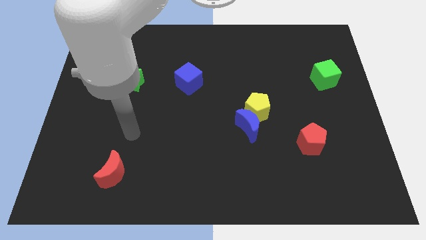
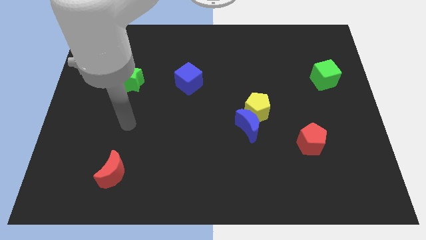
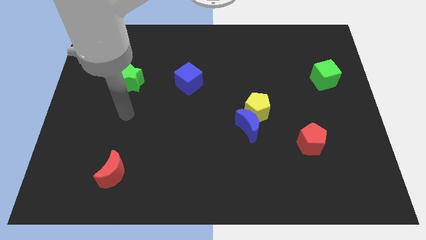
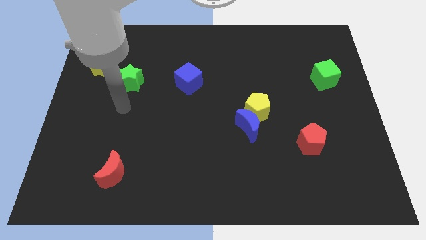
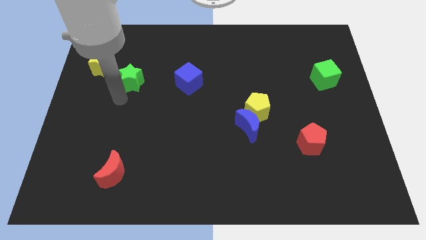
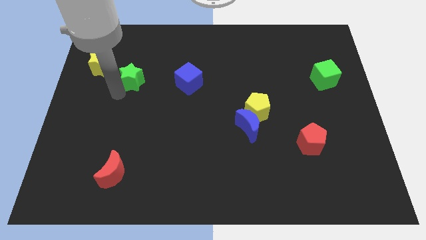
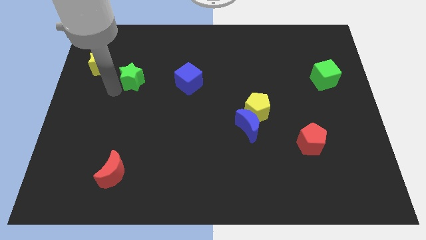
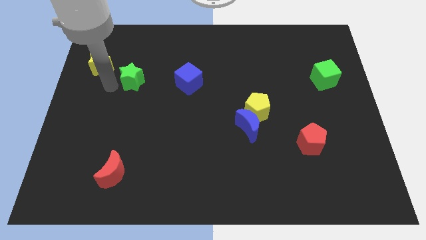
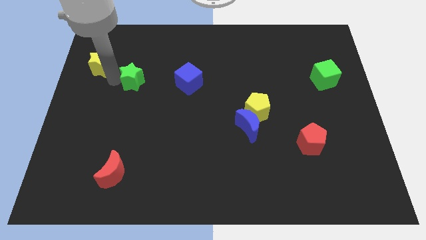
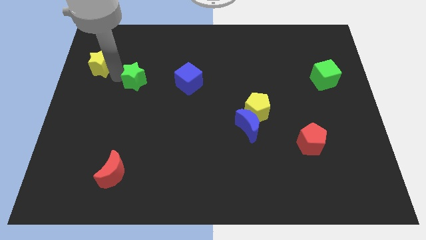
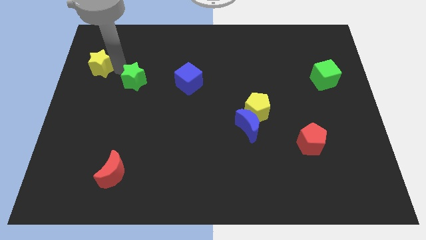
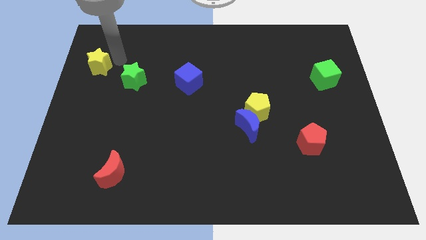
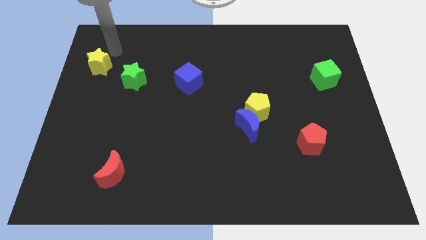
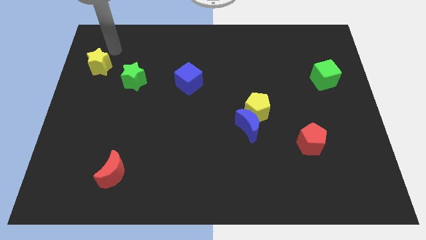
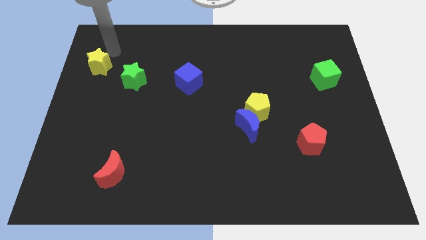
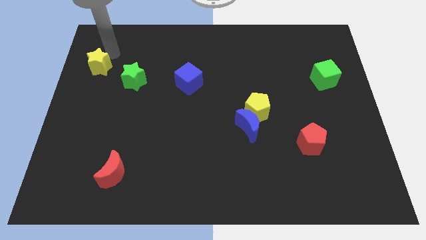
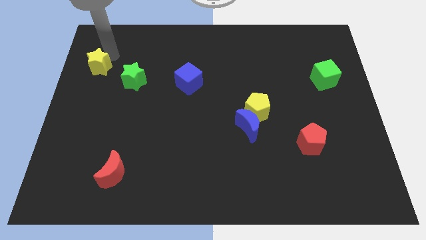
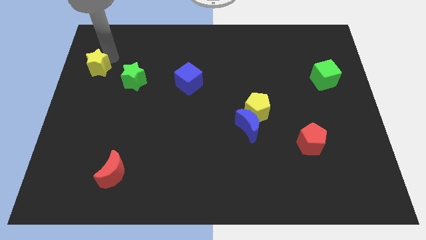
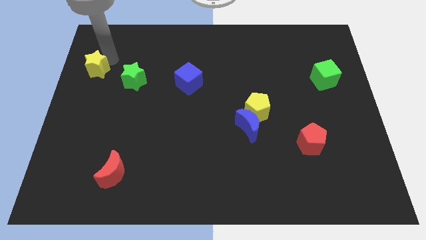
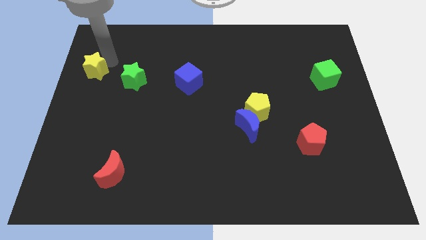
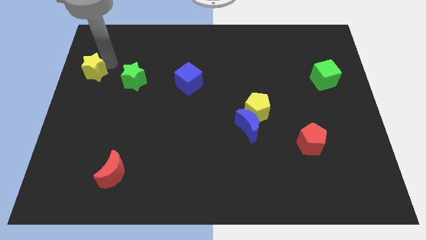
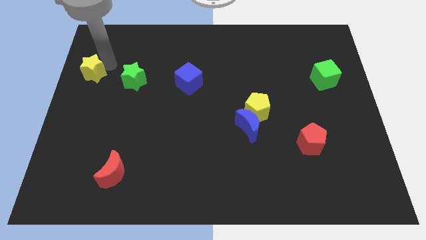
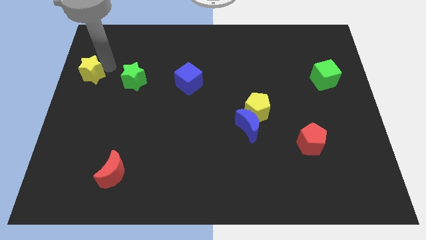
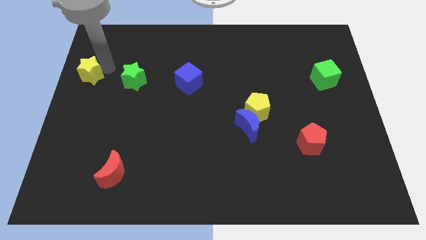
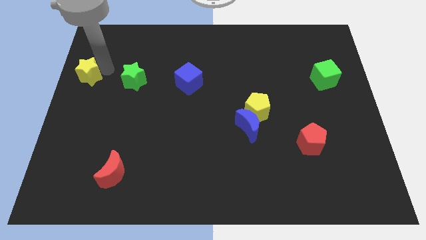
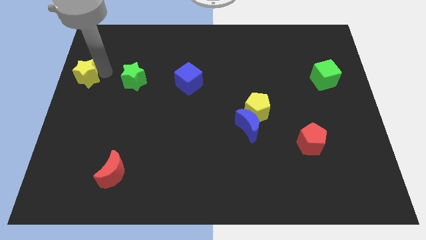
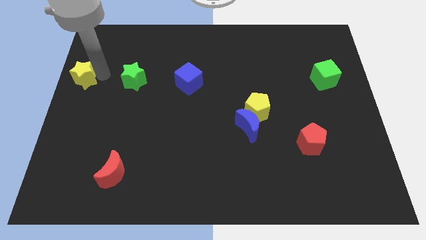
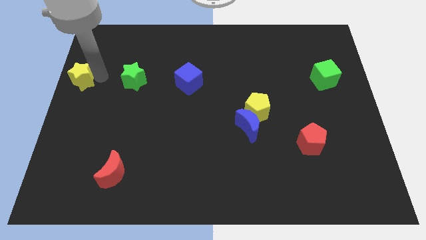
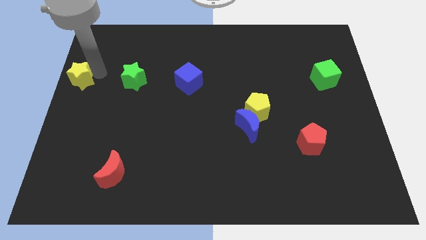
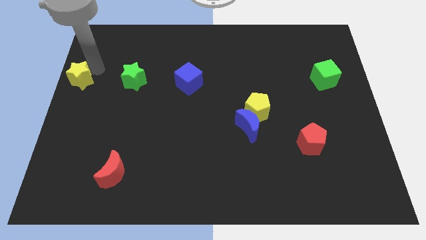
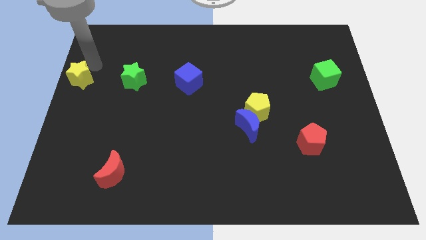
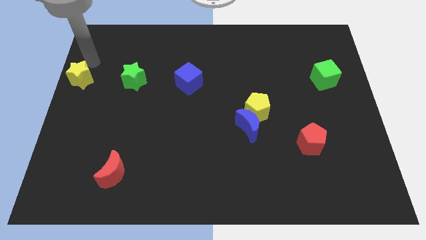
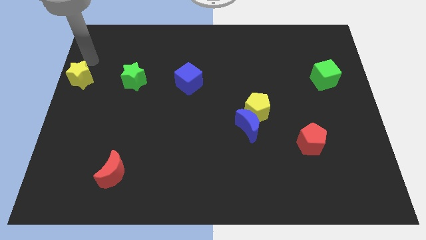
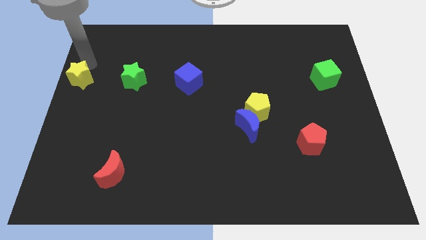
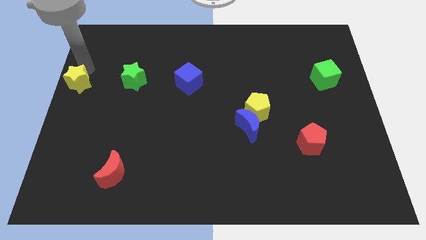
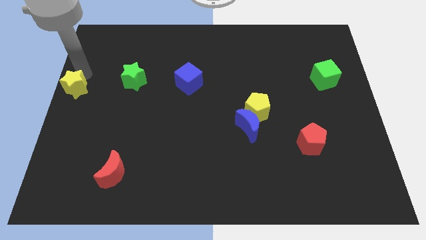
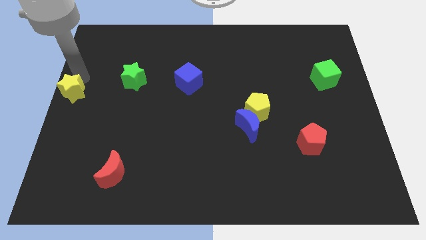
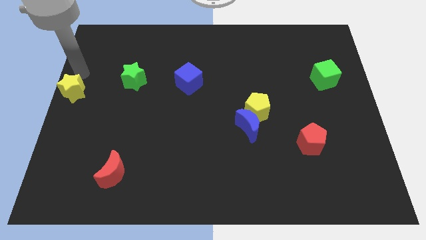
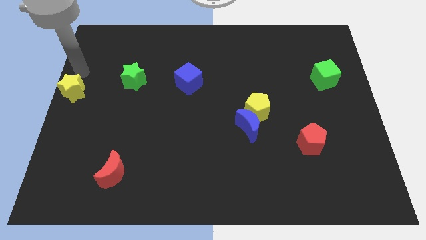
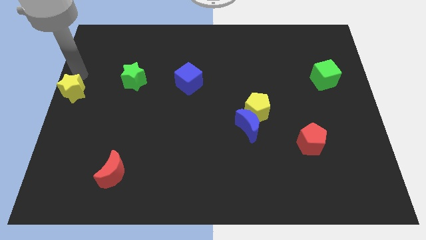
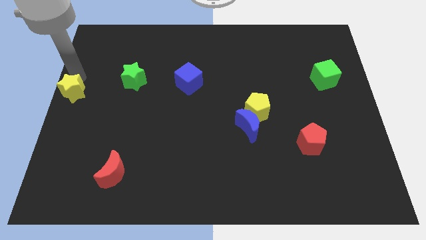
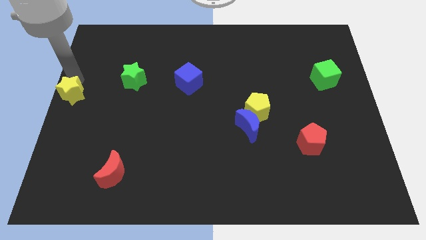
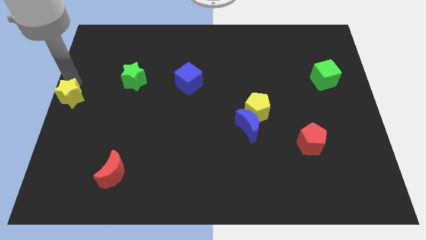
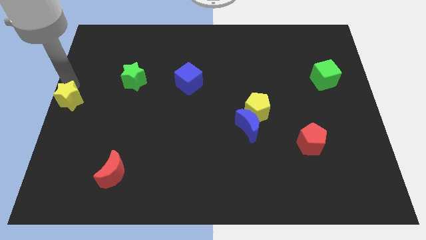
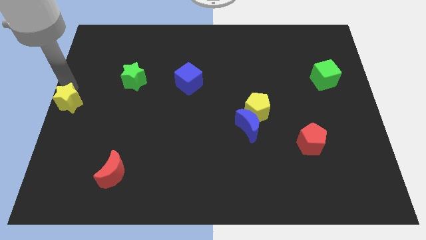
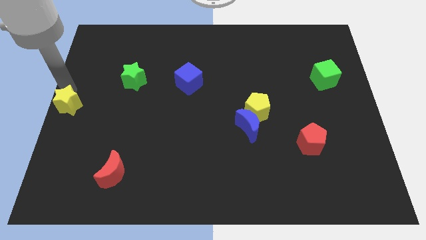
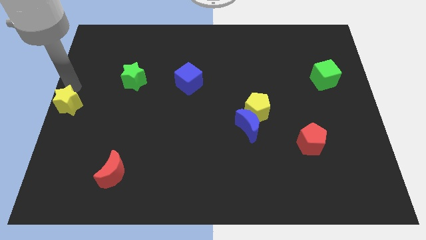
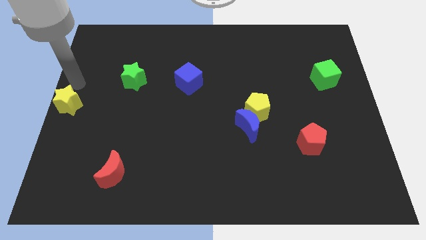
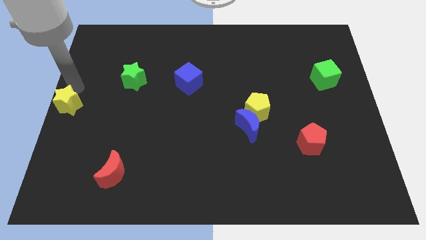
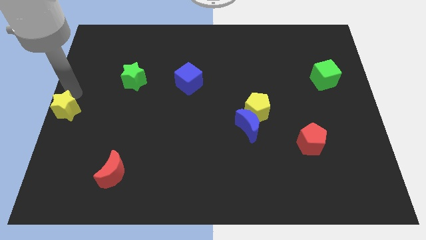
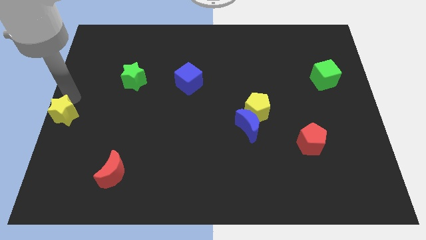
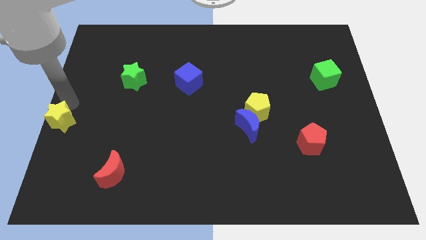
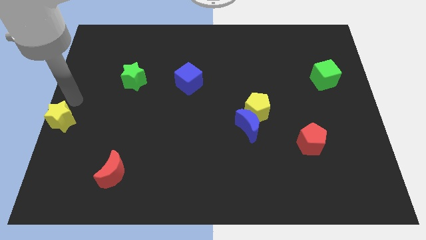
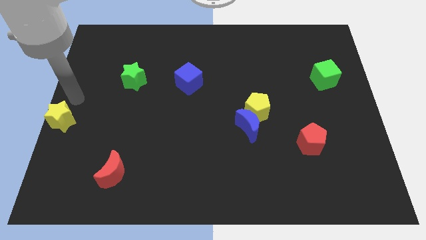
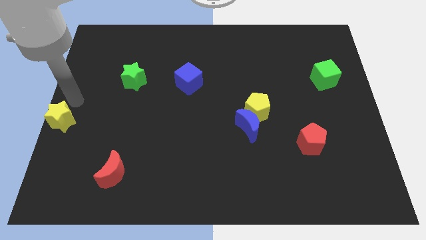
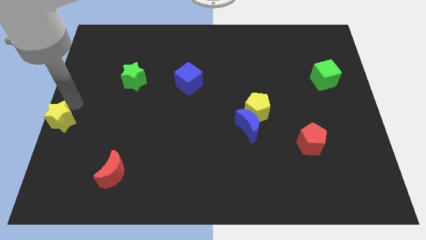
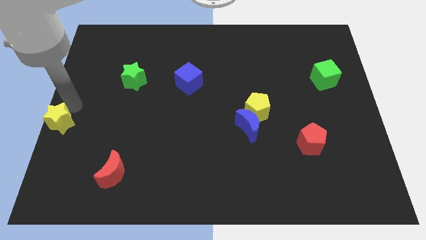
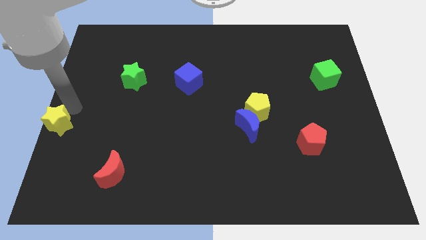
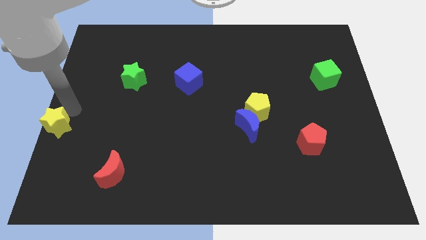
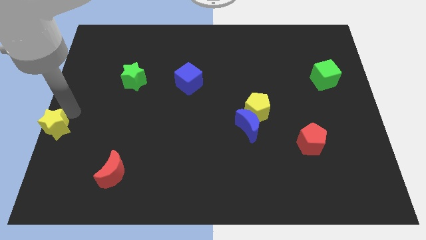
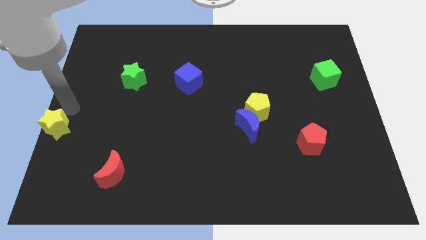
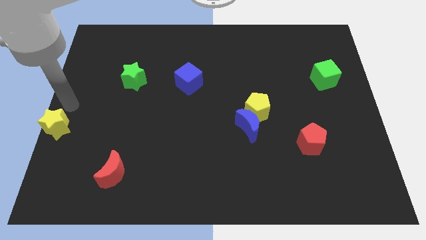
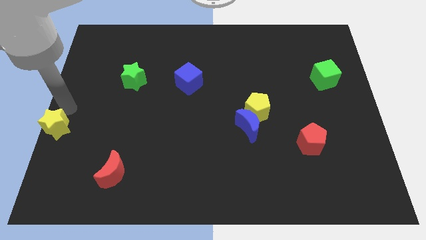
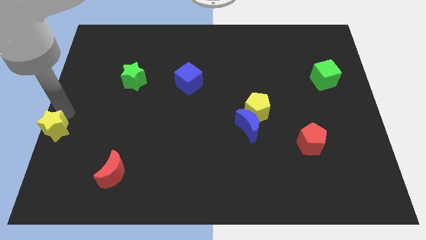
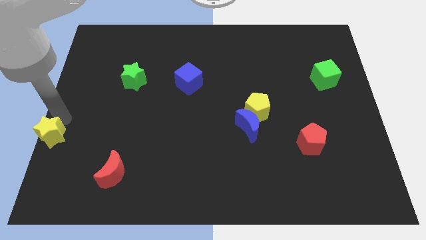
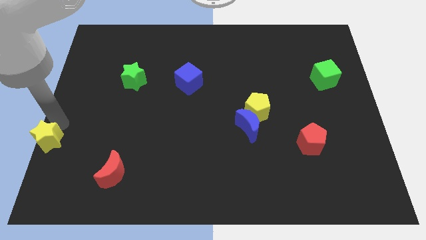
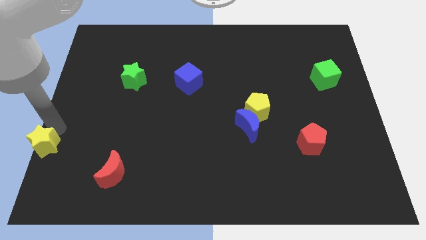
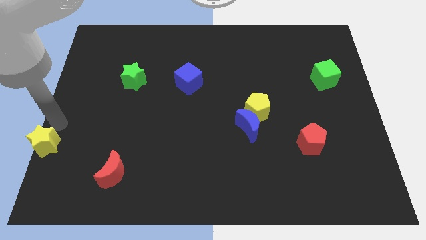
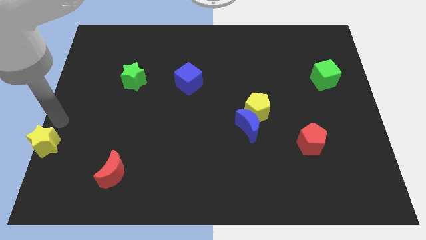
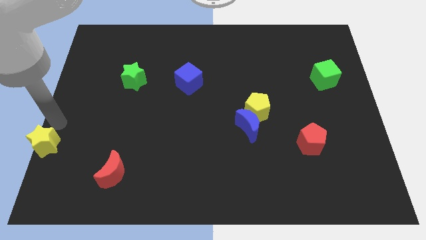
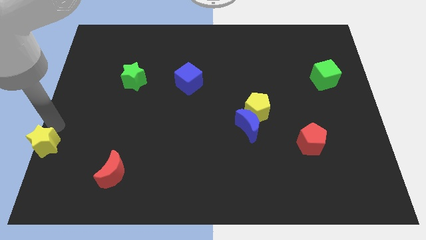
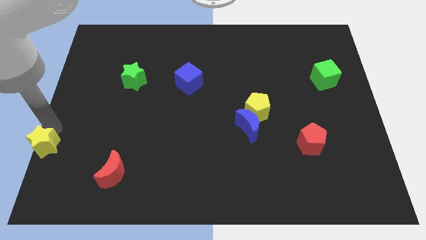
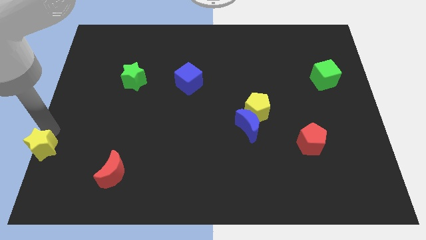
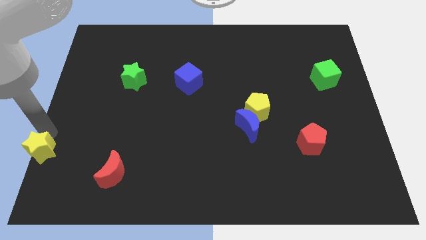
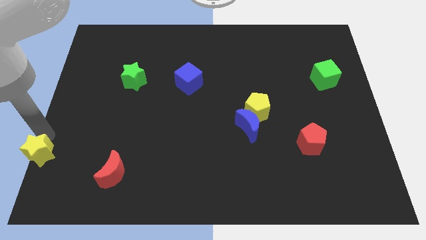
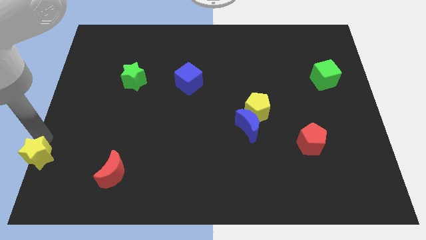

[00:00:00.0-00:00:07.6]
slide the yellow star to the bottom left of the board
